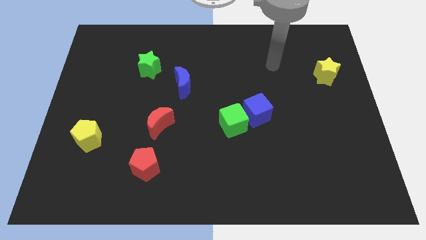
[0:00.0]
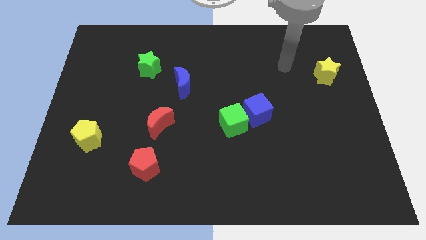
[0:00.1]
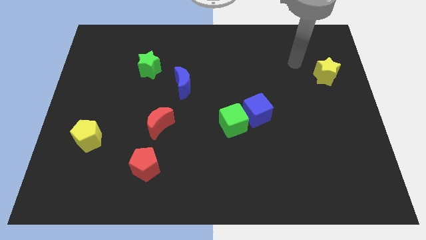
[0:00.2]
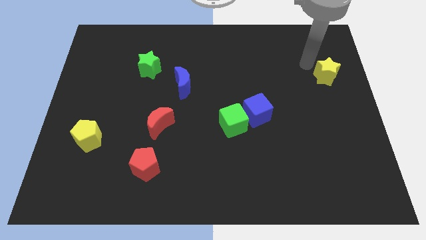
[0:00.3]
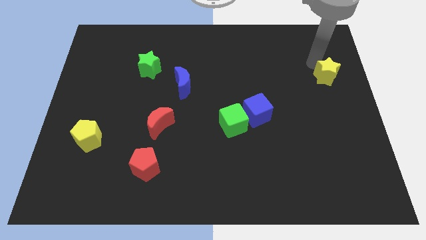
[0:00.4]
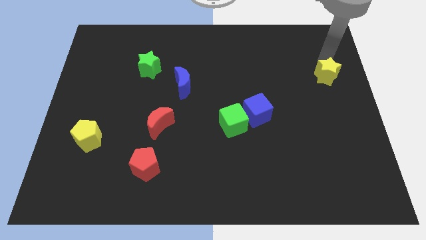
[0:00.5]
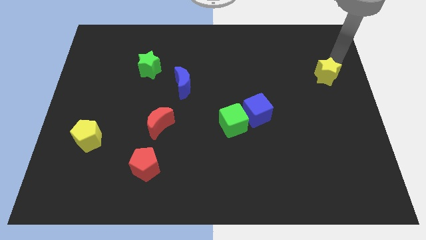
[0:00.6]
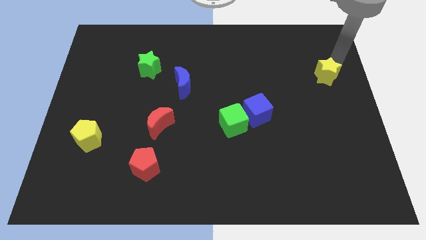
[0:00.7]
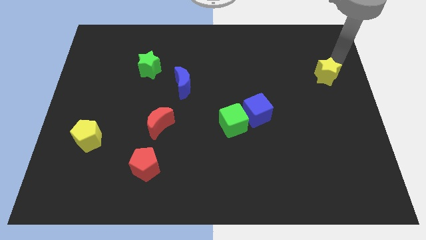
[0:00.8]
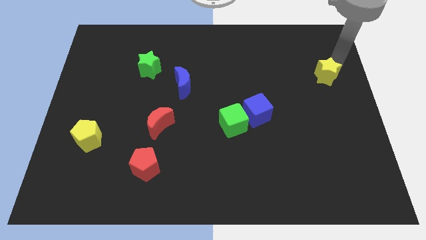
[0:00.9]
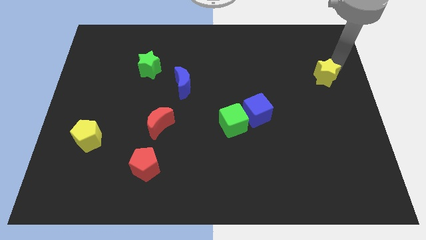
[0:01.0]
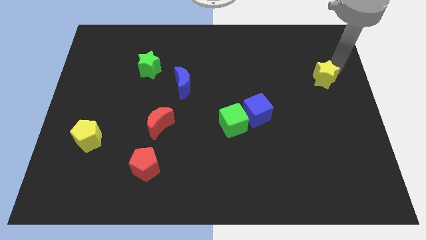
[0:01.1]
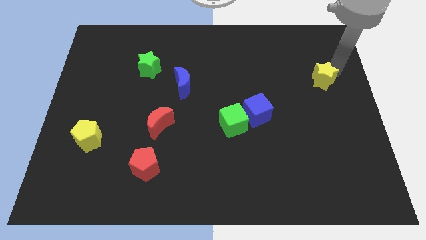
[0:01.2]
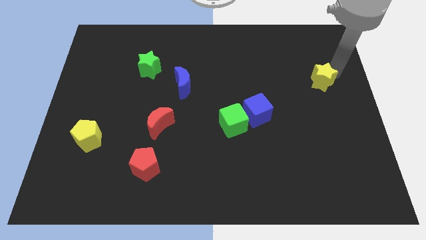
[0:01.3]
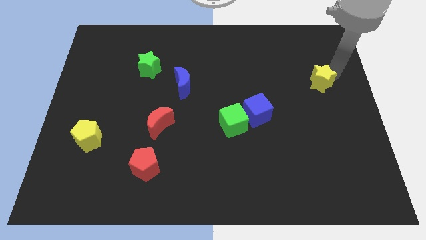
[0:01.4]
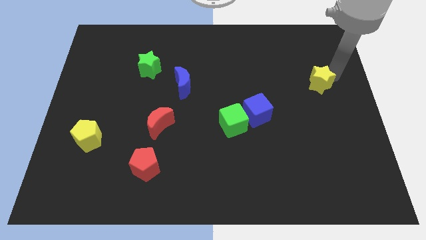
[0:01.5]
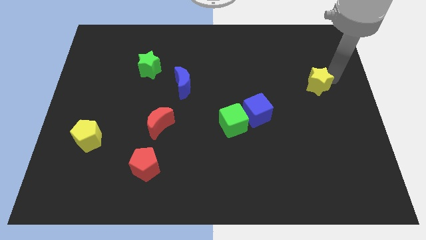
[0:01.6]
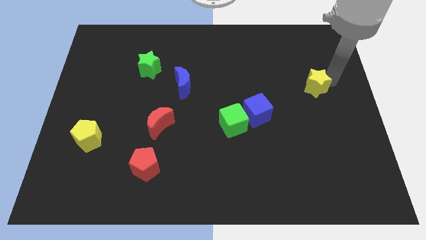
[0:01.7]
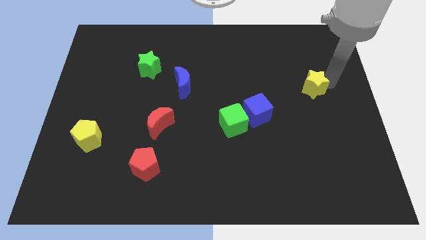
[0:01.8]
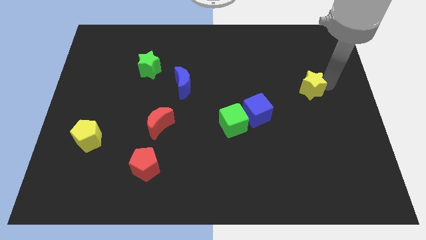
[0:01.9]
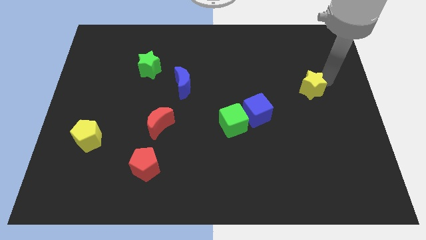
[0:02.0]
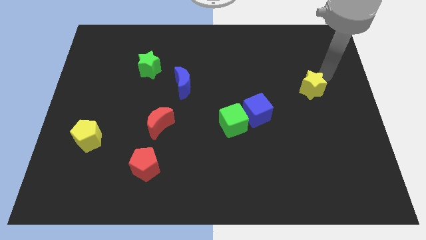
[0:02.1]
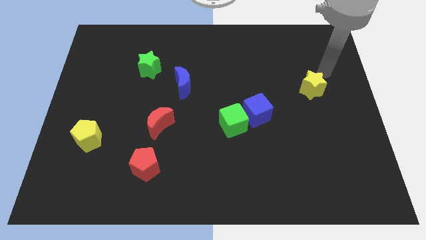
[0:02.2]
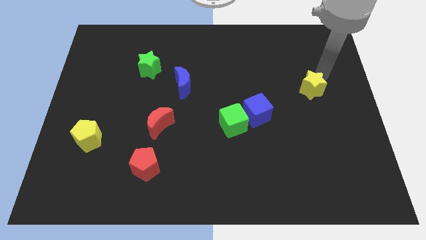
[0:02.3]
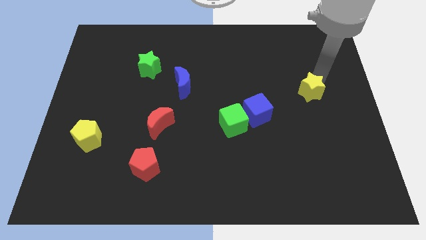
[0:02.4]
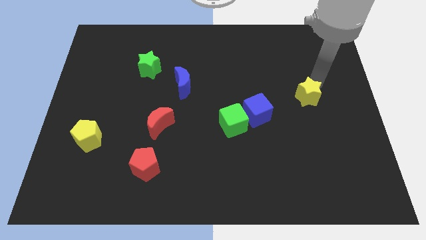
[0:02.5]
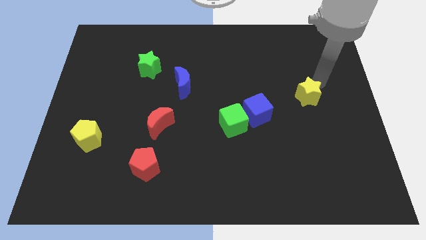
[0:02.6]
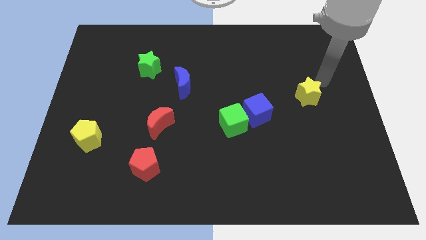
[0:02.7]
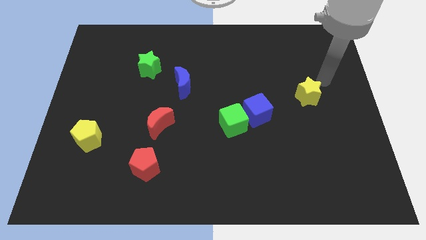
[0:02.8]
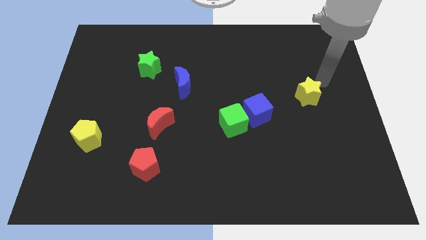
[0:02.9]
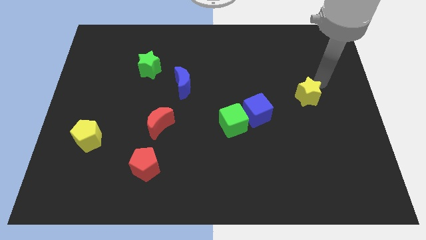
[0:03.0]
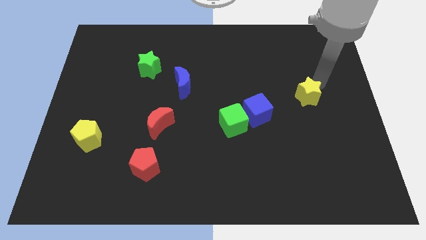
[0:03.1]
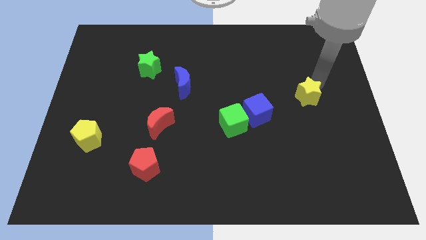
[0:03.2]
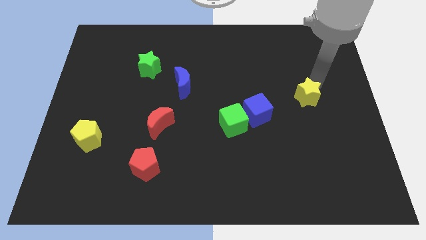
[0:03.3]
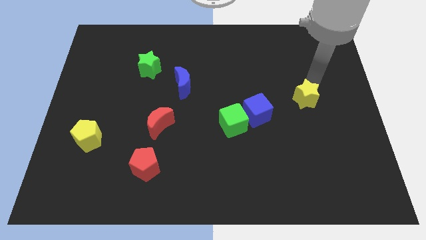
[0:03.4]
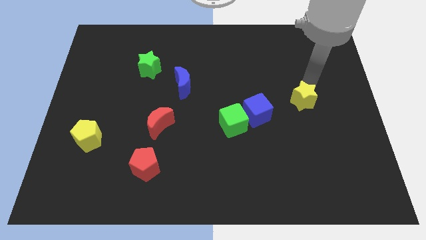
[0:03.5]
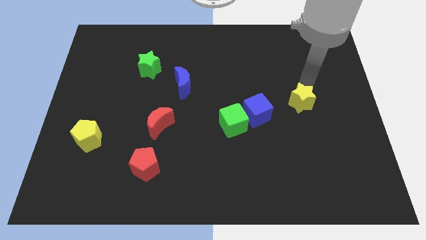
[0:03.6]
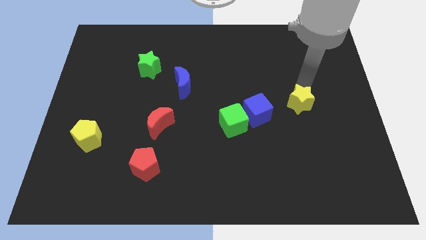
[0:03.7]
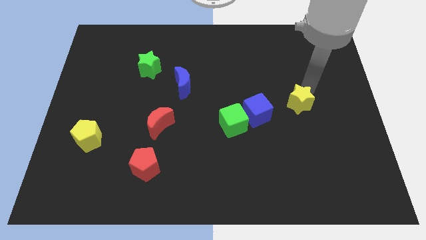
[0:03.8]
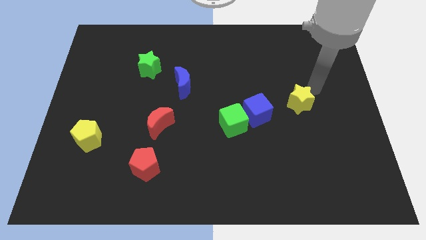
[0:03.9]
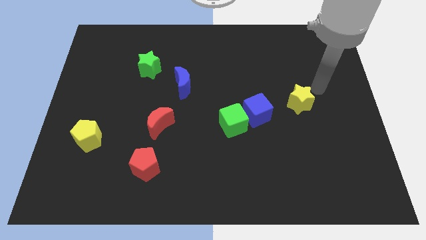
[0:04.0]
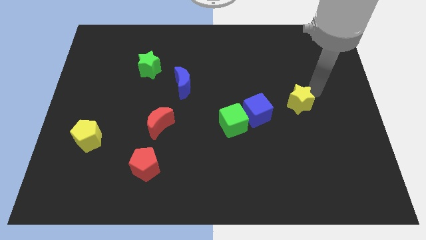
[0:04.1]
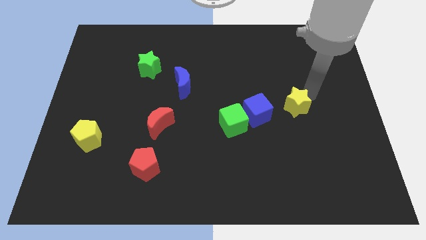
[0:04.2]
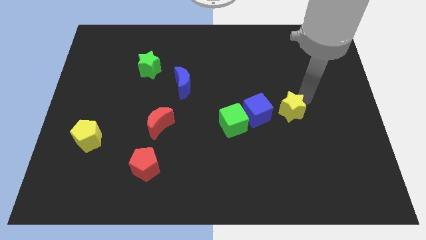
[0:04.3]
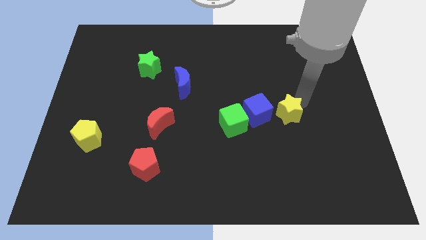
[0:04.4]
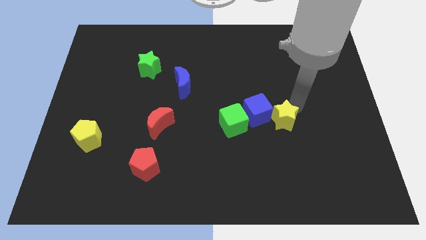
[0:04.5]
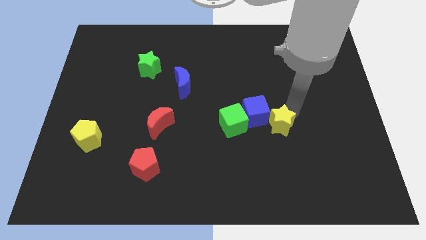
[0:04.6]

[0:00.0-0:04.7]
move the yellow star down and left

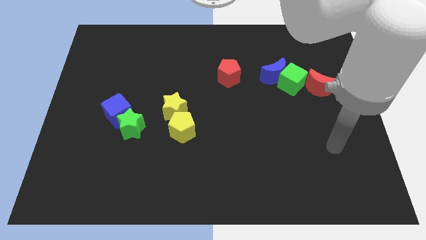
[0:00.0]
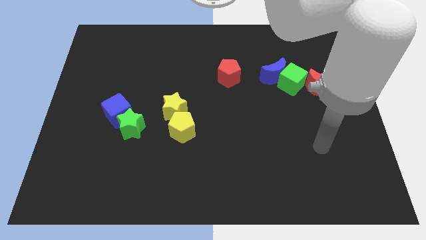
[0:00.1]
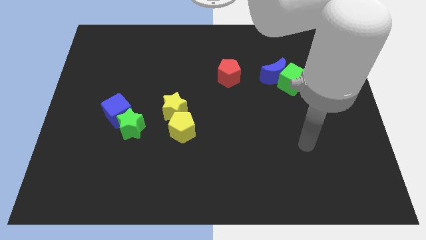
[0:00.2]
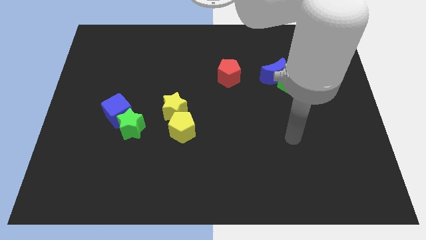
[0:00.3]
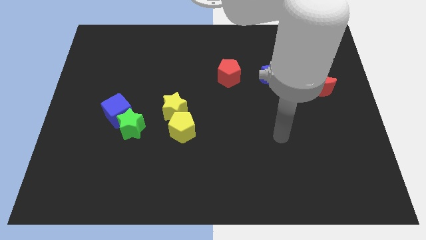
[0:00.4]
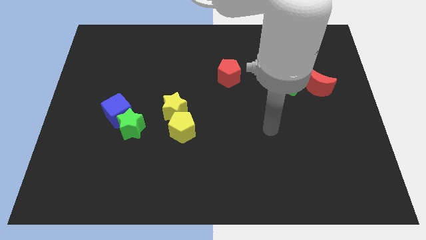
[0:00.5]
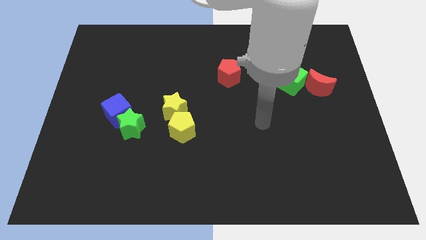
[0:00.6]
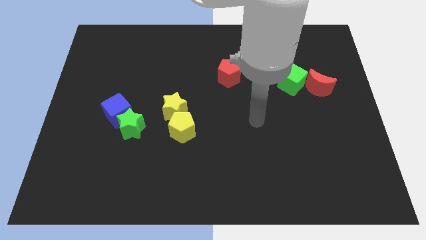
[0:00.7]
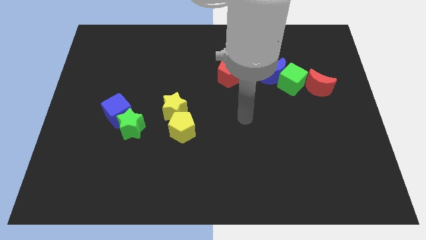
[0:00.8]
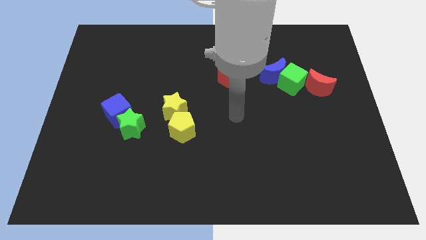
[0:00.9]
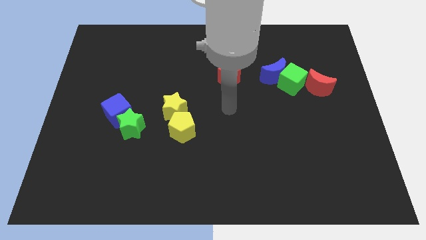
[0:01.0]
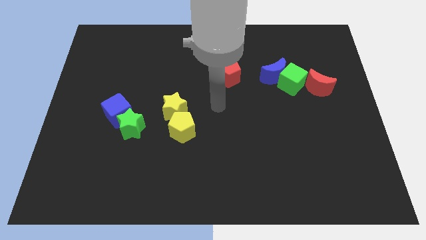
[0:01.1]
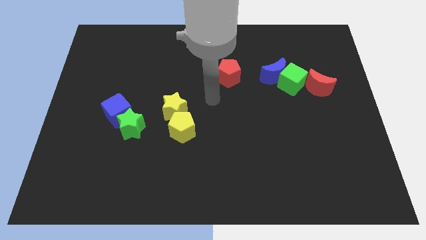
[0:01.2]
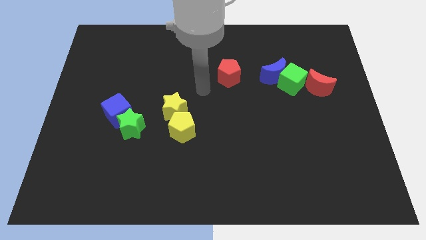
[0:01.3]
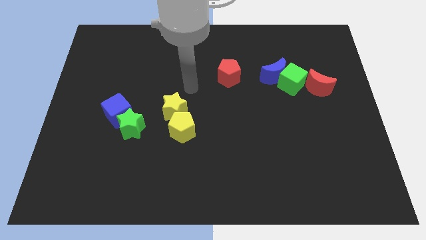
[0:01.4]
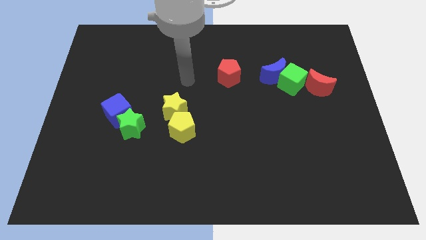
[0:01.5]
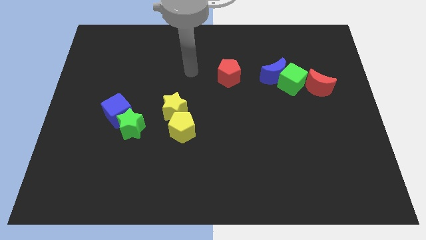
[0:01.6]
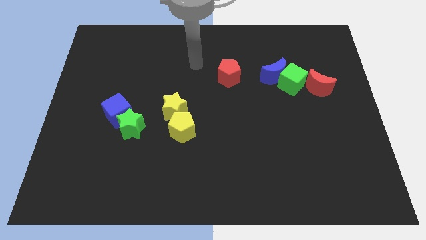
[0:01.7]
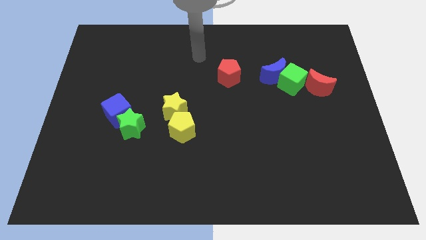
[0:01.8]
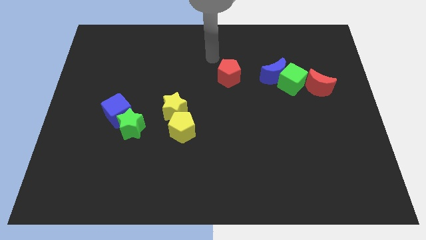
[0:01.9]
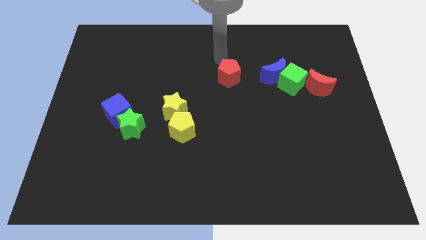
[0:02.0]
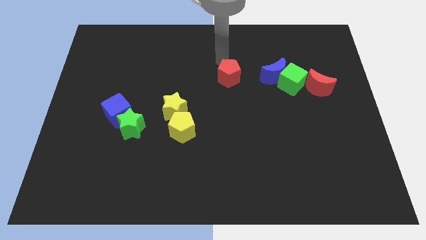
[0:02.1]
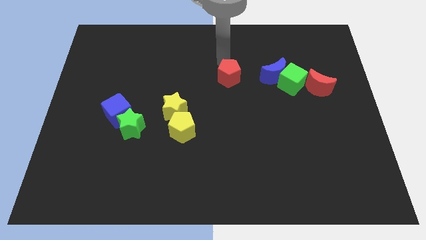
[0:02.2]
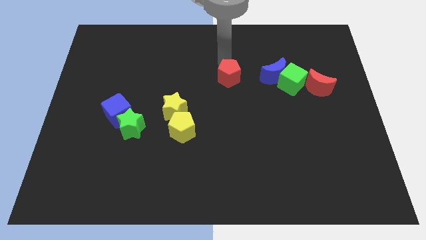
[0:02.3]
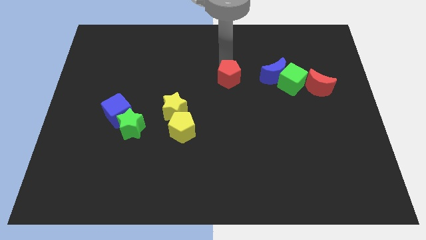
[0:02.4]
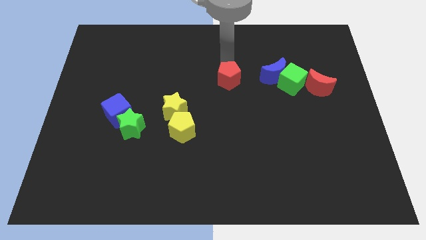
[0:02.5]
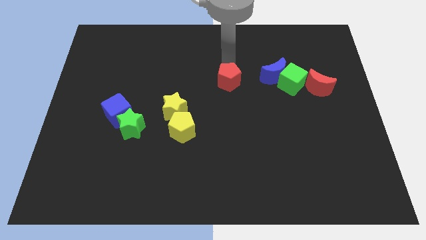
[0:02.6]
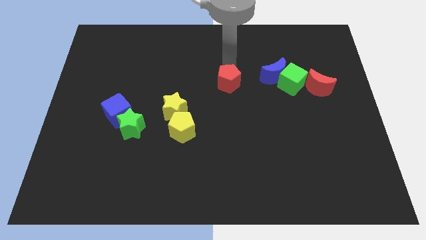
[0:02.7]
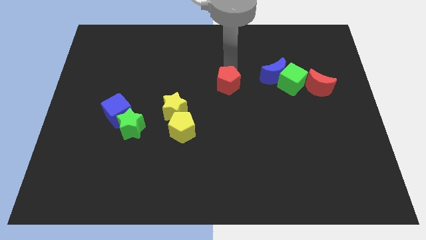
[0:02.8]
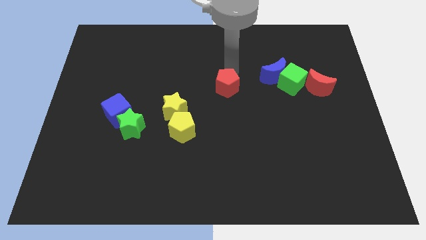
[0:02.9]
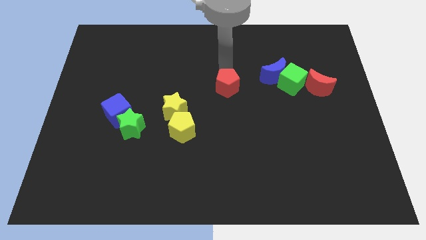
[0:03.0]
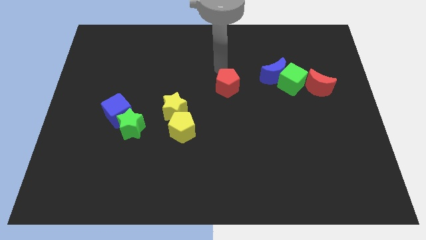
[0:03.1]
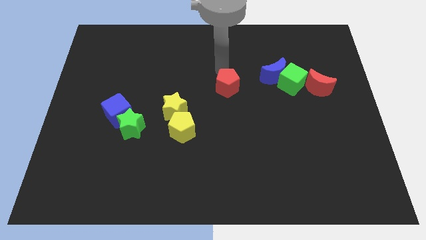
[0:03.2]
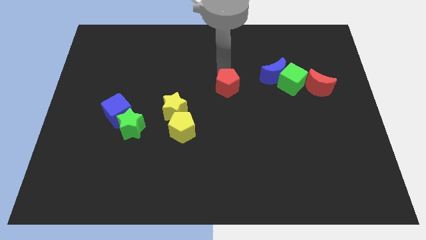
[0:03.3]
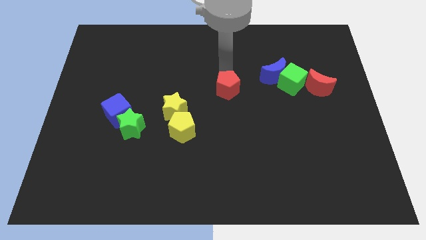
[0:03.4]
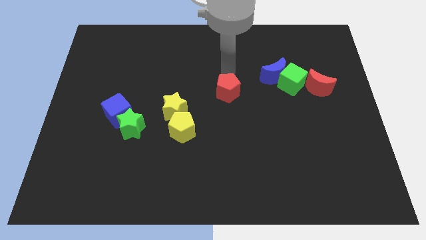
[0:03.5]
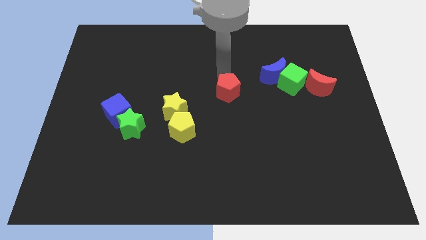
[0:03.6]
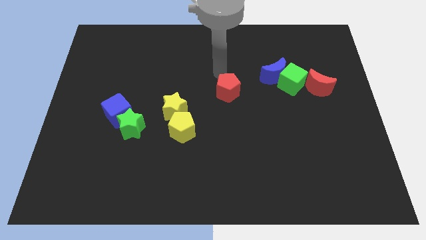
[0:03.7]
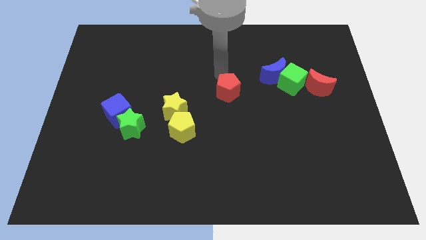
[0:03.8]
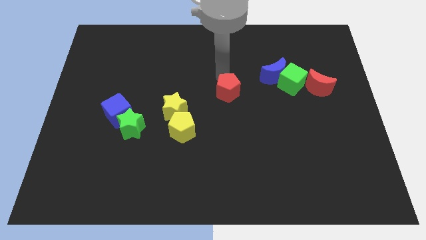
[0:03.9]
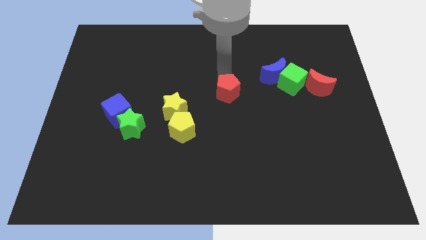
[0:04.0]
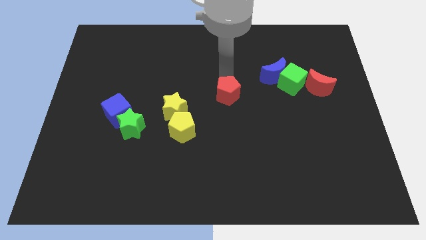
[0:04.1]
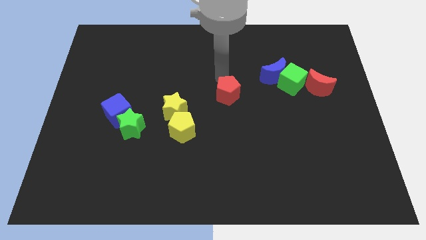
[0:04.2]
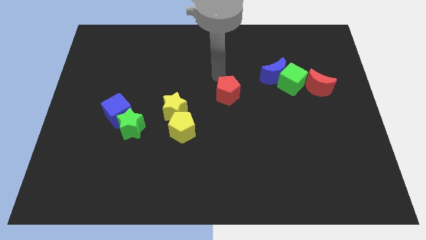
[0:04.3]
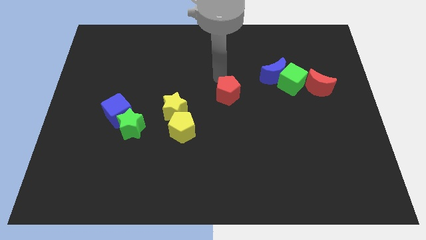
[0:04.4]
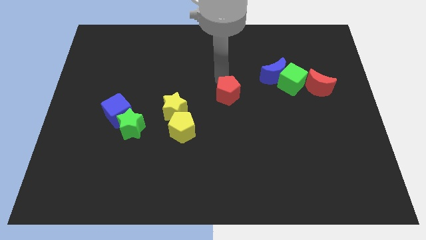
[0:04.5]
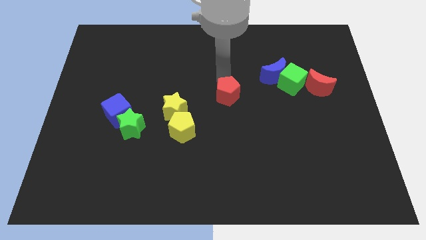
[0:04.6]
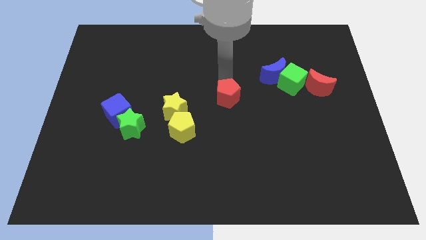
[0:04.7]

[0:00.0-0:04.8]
slightly slide the red pentagon downwards
